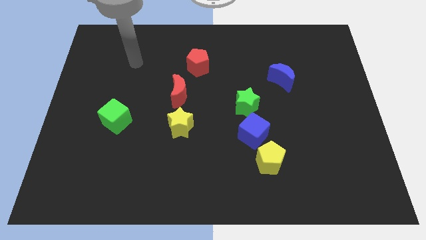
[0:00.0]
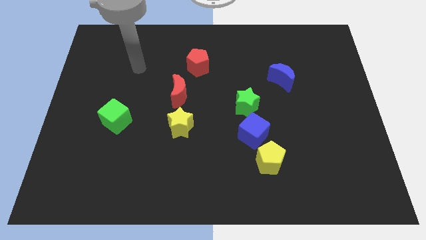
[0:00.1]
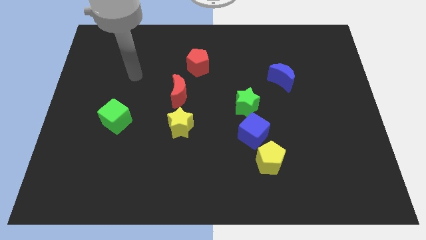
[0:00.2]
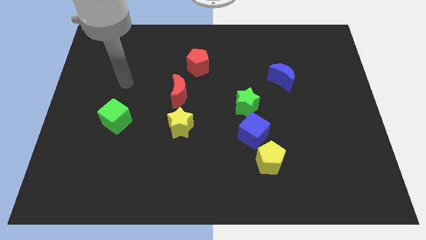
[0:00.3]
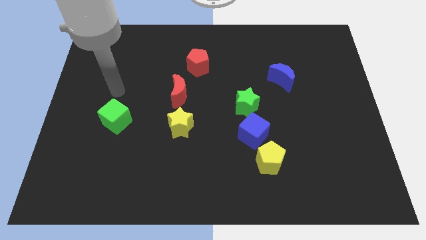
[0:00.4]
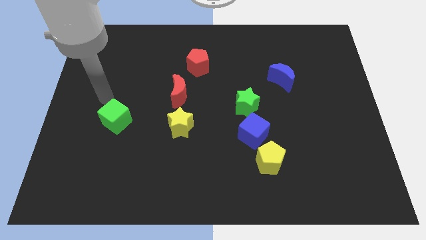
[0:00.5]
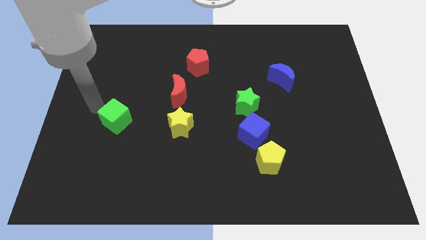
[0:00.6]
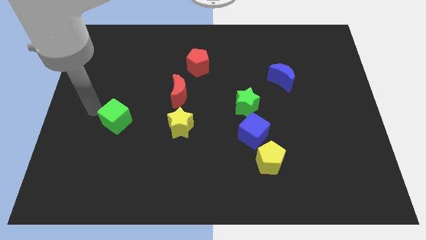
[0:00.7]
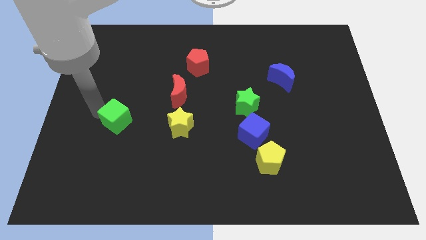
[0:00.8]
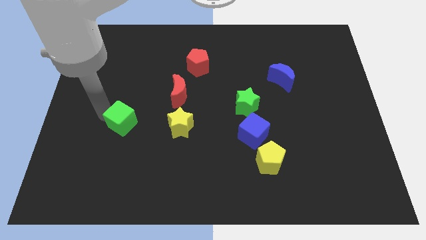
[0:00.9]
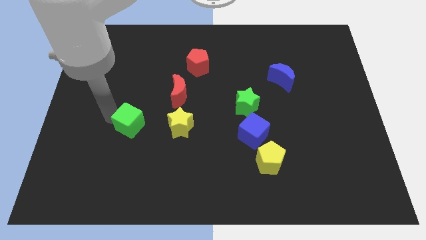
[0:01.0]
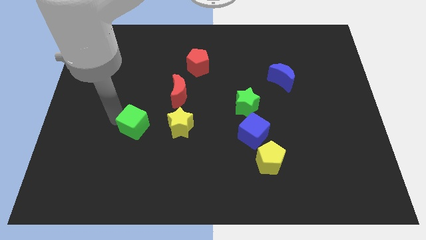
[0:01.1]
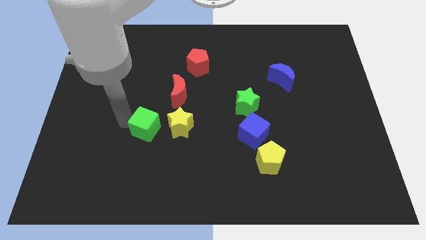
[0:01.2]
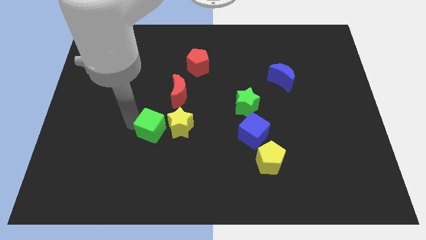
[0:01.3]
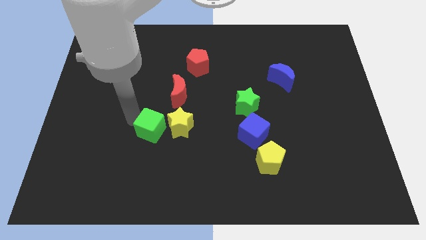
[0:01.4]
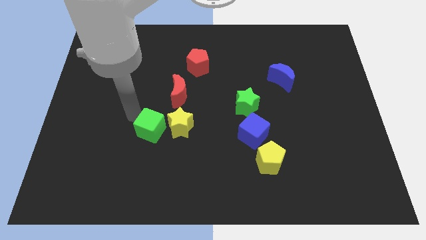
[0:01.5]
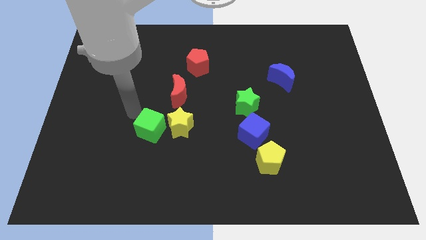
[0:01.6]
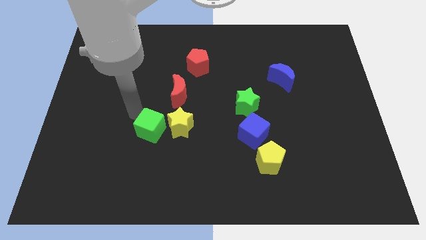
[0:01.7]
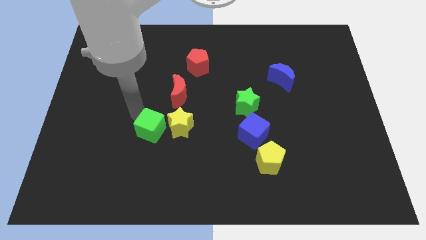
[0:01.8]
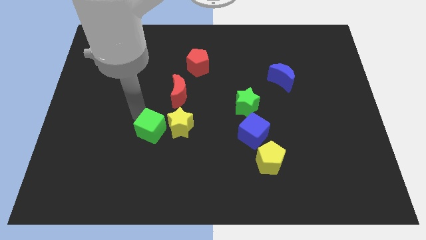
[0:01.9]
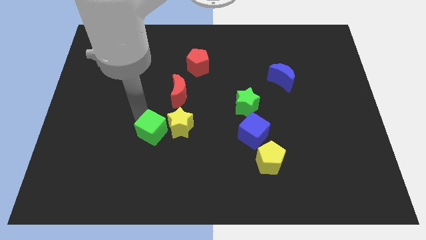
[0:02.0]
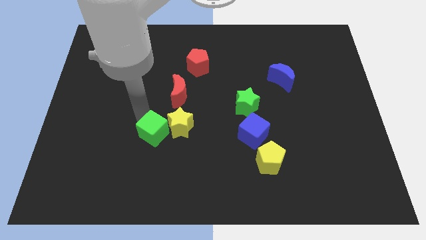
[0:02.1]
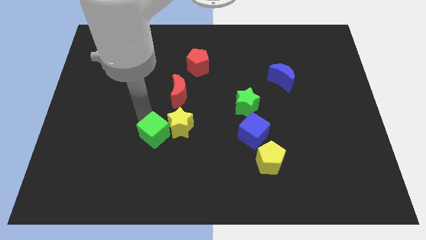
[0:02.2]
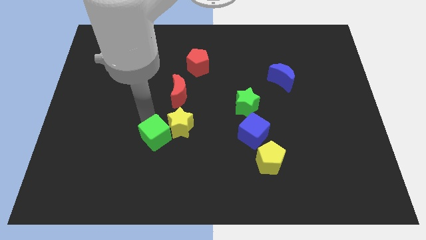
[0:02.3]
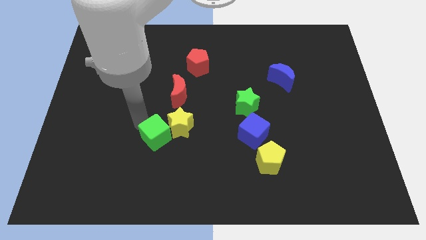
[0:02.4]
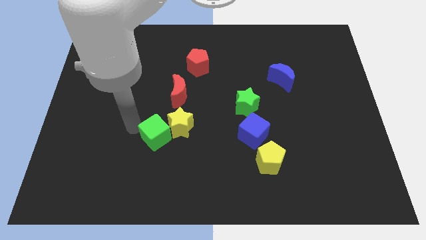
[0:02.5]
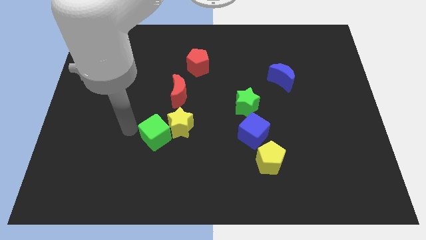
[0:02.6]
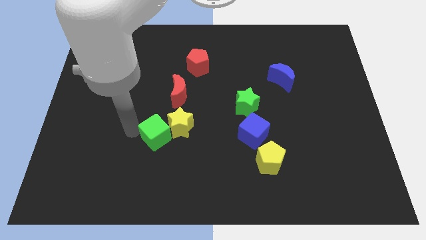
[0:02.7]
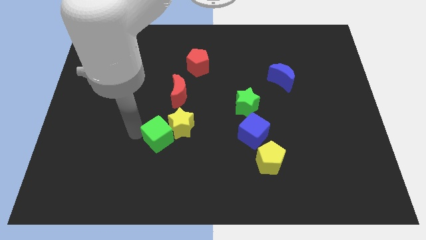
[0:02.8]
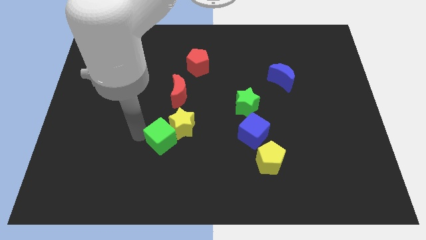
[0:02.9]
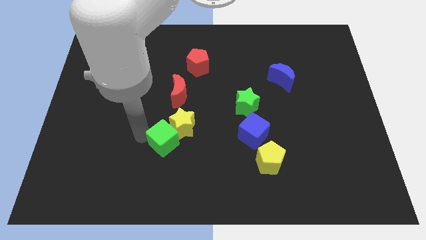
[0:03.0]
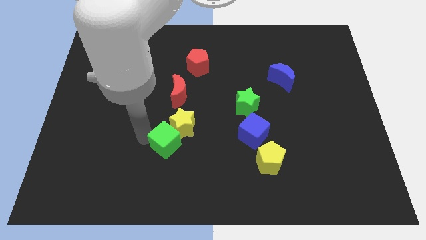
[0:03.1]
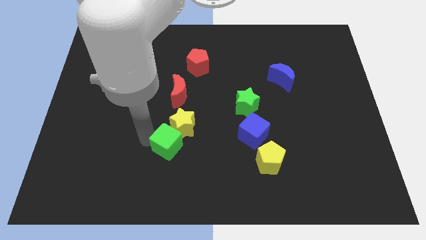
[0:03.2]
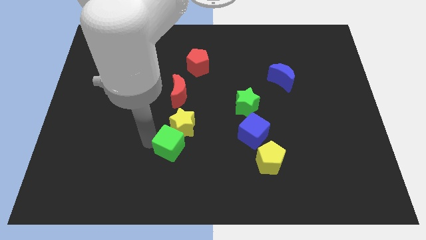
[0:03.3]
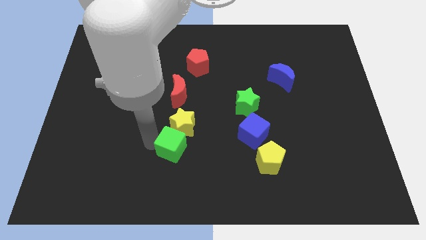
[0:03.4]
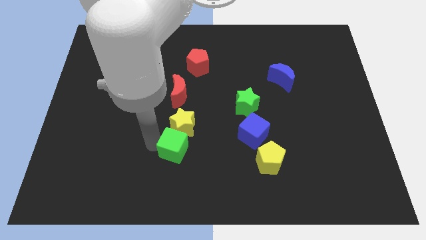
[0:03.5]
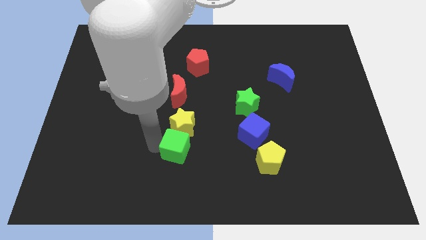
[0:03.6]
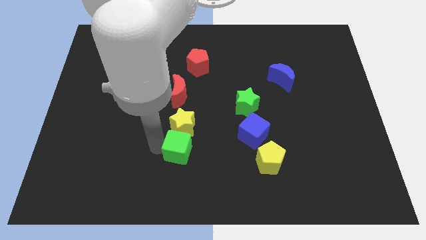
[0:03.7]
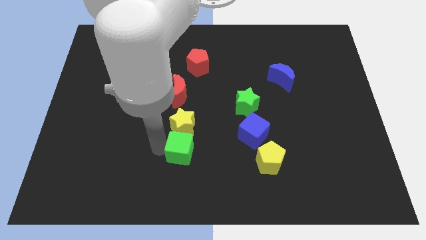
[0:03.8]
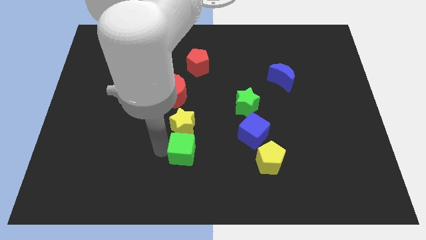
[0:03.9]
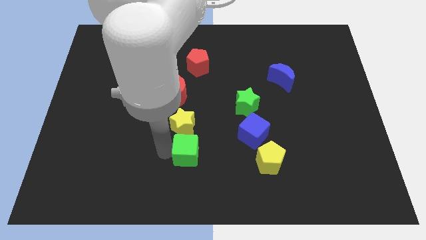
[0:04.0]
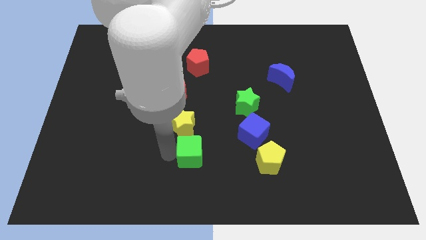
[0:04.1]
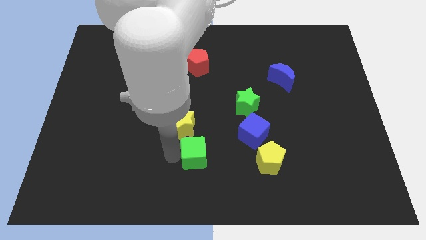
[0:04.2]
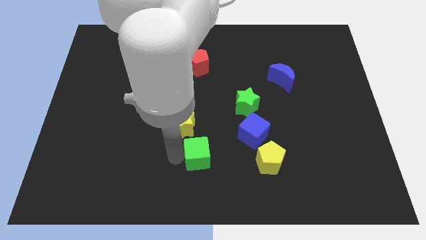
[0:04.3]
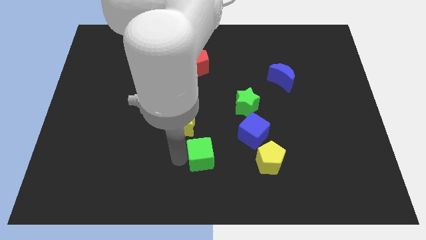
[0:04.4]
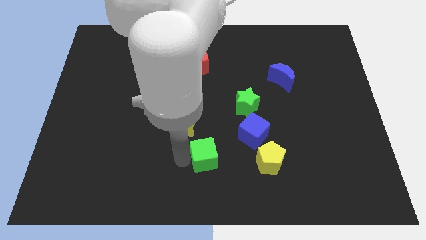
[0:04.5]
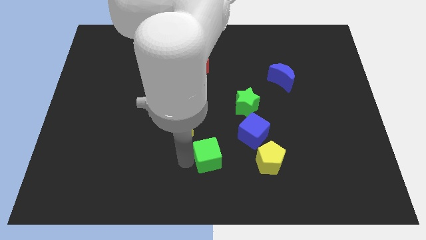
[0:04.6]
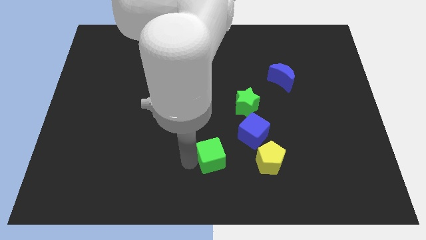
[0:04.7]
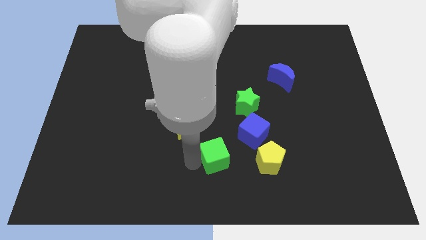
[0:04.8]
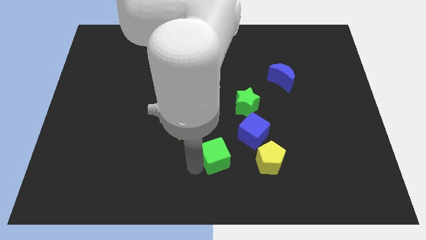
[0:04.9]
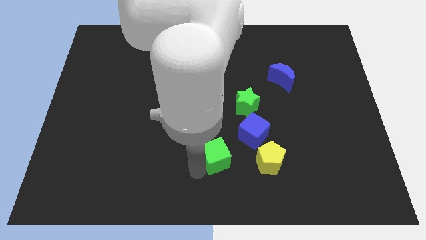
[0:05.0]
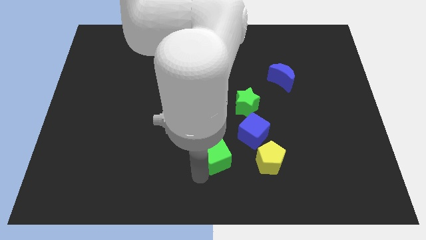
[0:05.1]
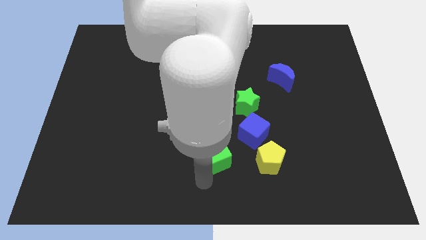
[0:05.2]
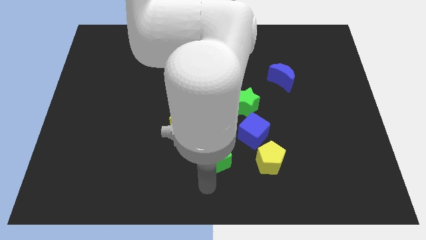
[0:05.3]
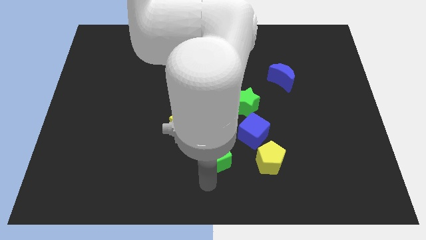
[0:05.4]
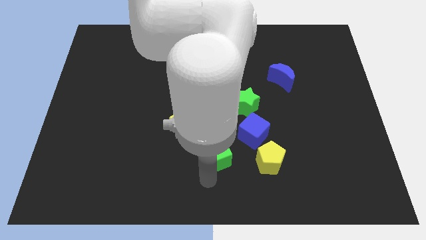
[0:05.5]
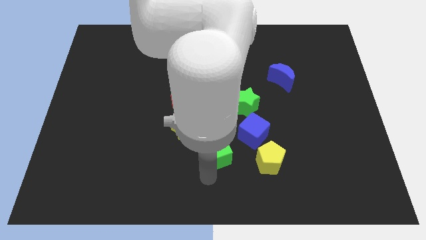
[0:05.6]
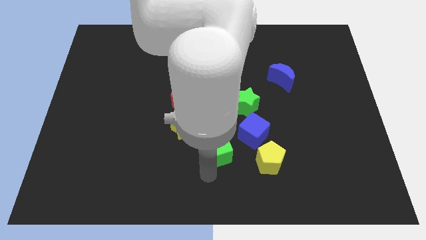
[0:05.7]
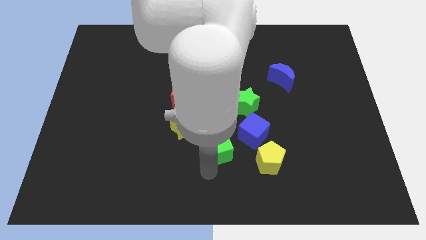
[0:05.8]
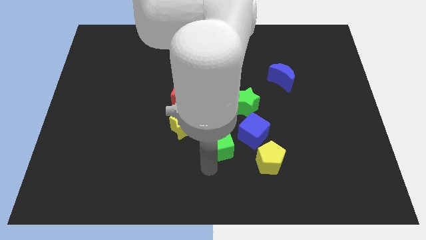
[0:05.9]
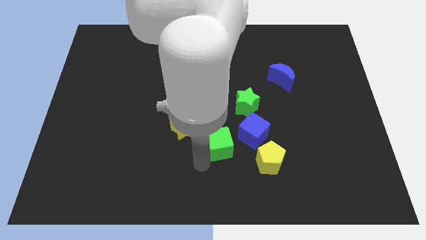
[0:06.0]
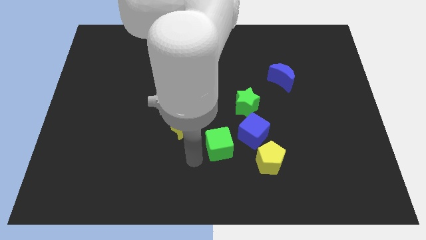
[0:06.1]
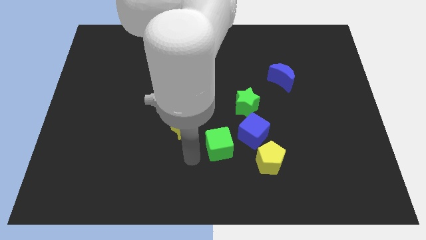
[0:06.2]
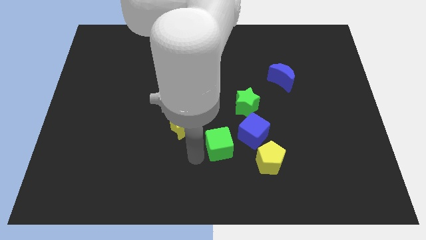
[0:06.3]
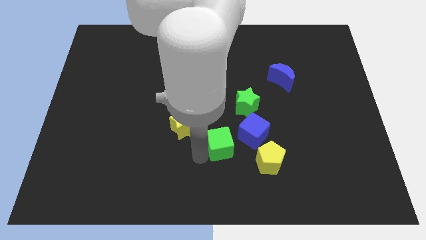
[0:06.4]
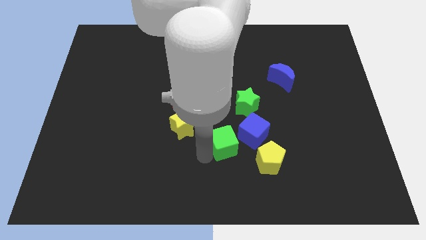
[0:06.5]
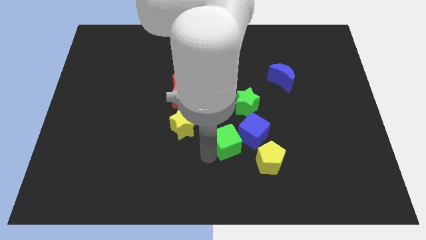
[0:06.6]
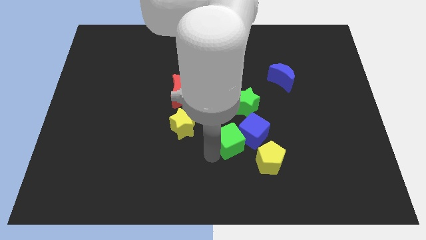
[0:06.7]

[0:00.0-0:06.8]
put the green cube to the blue cube

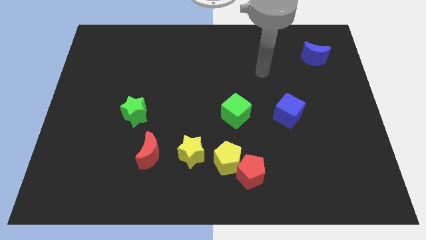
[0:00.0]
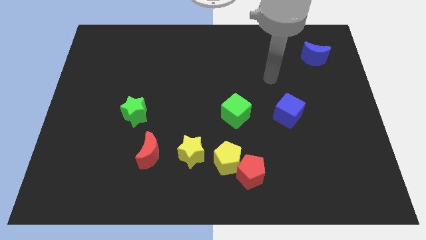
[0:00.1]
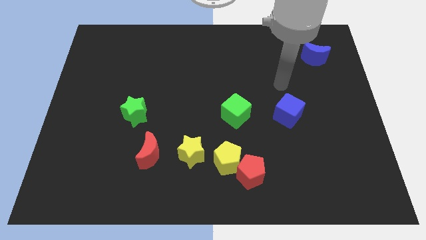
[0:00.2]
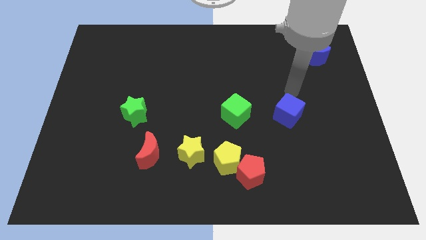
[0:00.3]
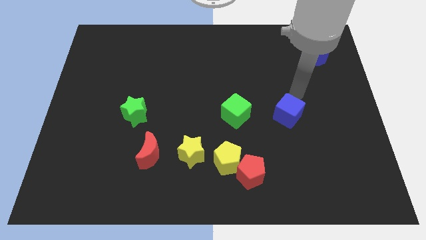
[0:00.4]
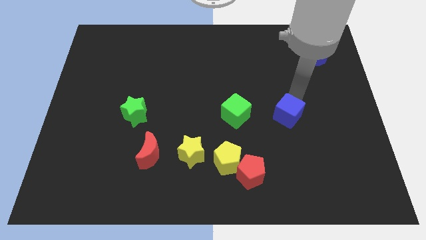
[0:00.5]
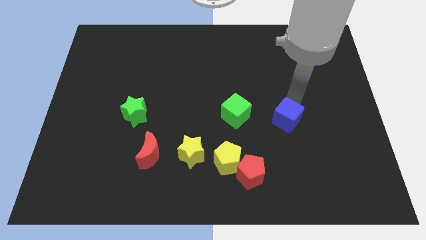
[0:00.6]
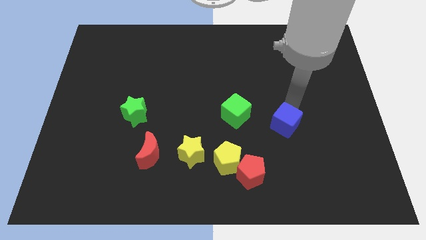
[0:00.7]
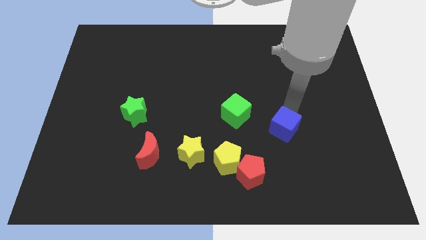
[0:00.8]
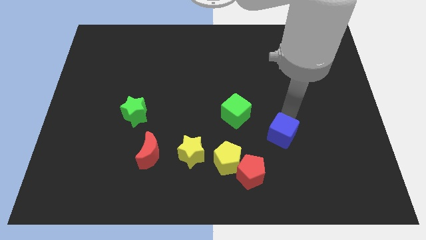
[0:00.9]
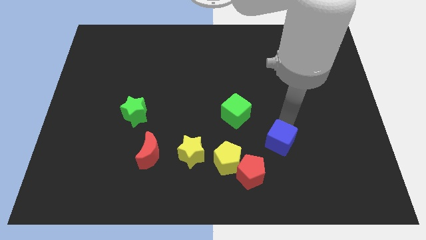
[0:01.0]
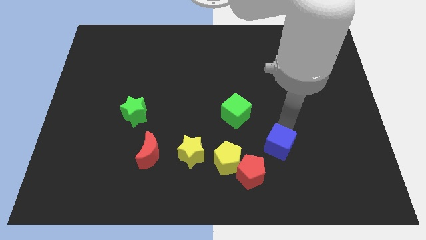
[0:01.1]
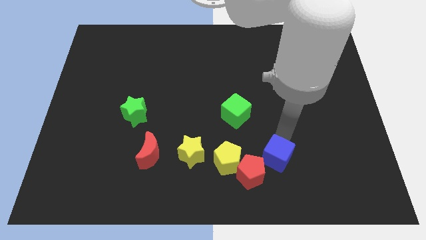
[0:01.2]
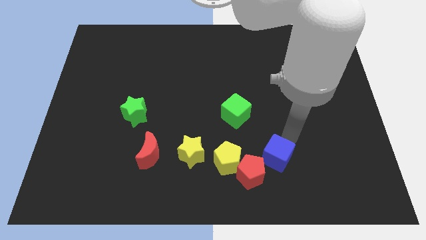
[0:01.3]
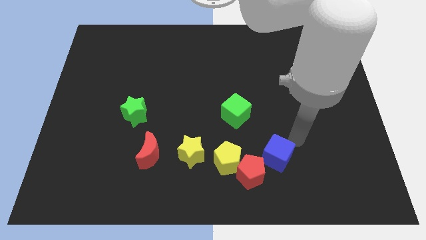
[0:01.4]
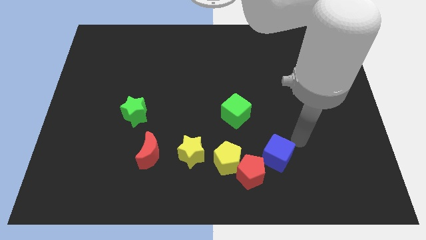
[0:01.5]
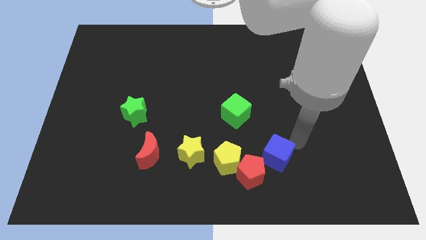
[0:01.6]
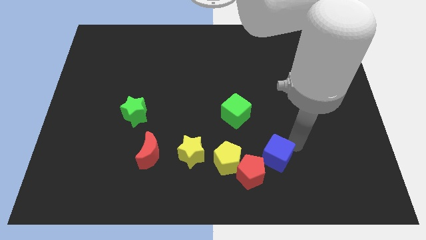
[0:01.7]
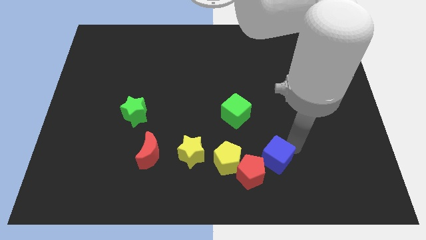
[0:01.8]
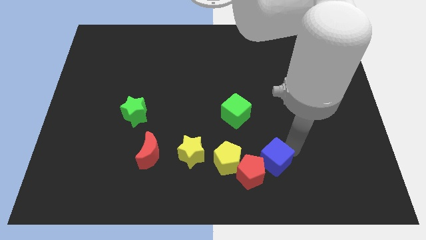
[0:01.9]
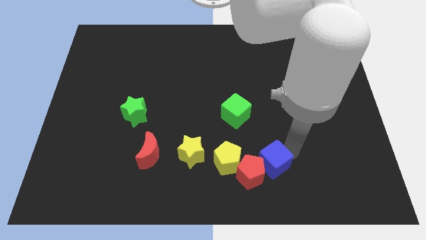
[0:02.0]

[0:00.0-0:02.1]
put the blue cube to the red pentagon
